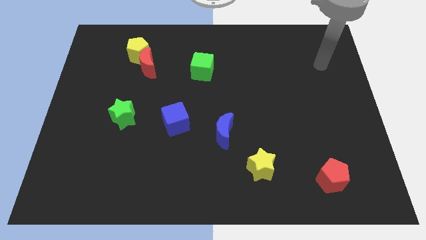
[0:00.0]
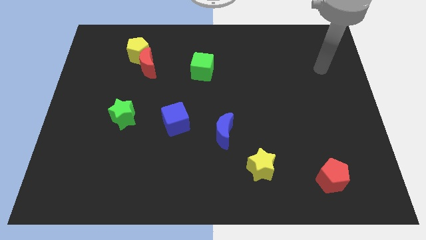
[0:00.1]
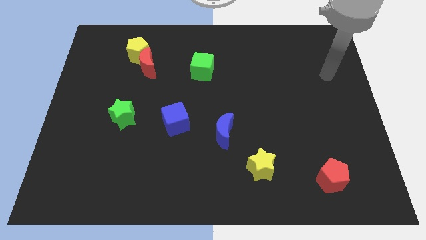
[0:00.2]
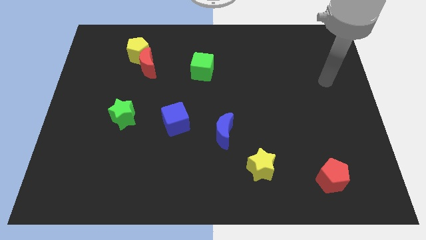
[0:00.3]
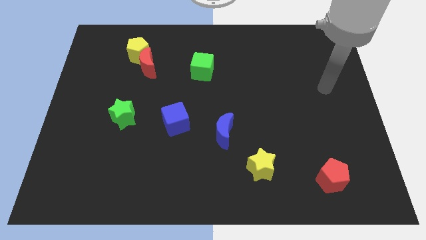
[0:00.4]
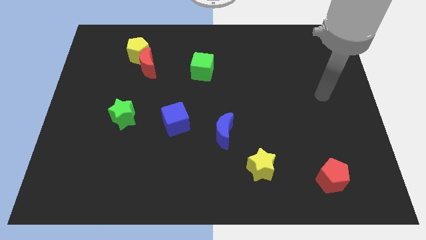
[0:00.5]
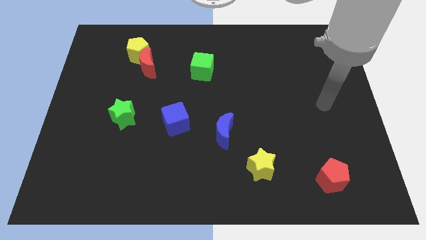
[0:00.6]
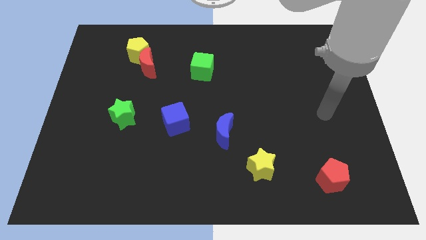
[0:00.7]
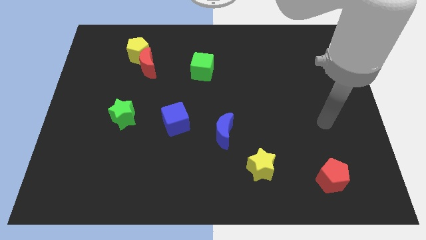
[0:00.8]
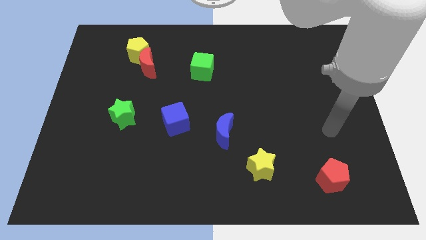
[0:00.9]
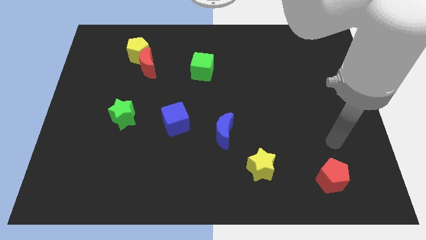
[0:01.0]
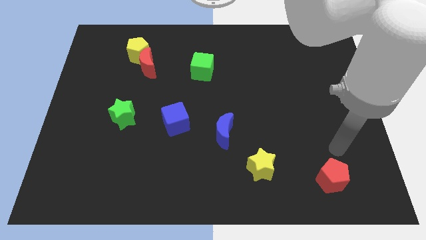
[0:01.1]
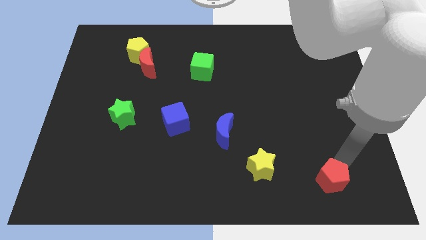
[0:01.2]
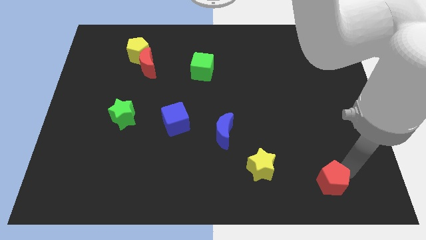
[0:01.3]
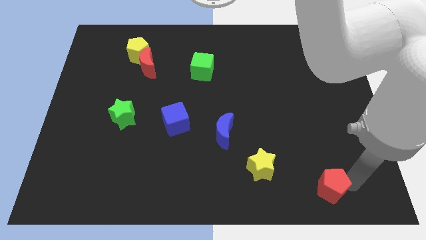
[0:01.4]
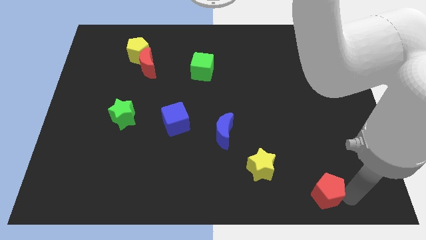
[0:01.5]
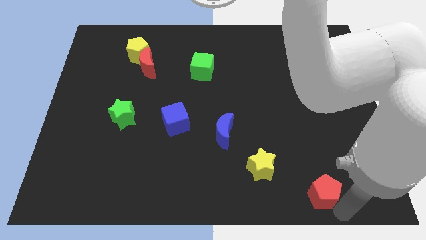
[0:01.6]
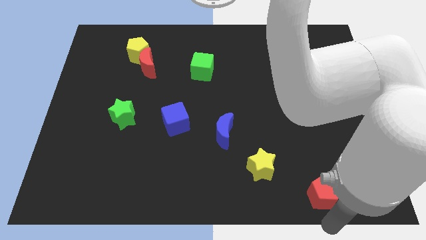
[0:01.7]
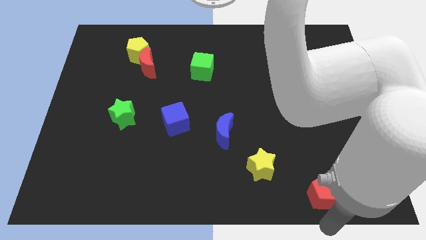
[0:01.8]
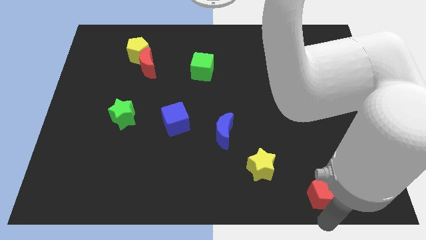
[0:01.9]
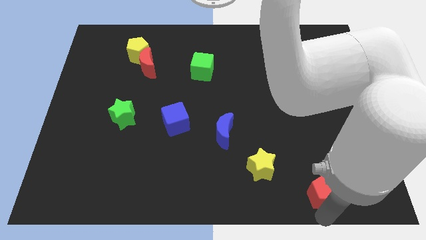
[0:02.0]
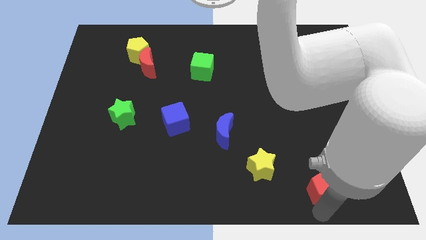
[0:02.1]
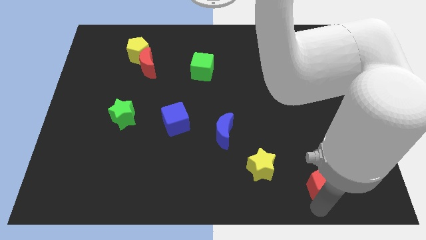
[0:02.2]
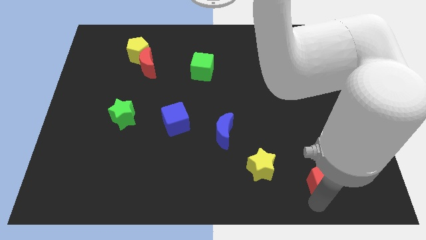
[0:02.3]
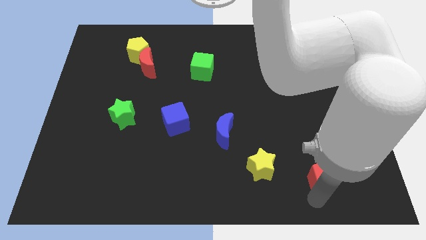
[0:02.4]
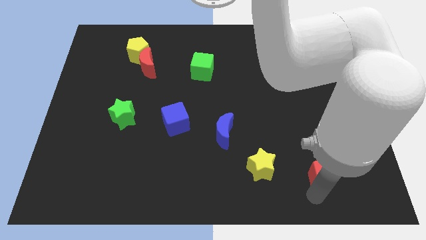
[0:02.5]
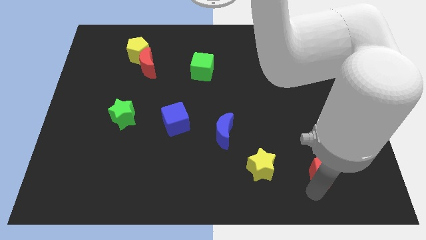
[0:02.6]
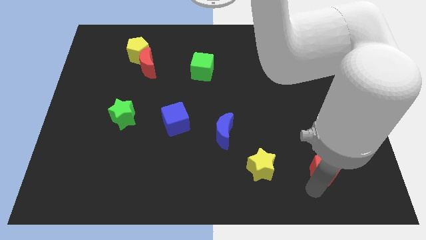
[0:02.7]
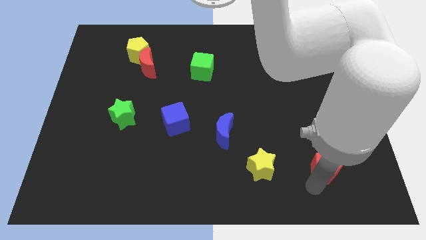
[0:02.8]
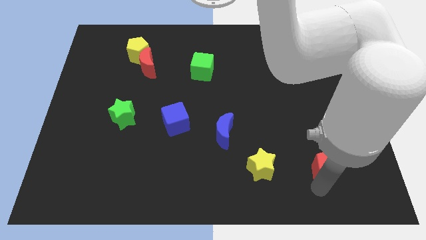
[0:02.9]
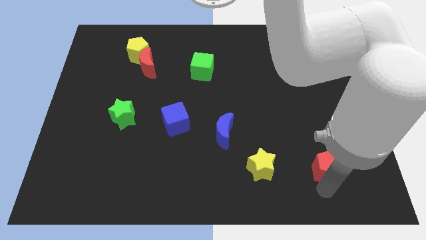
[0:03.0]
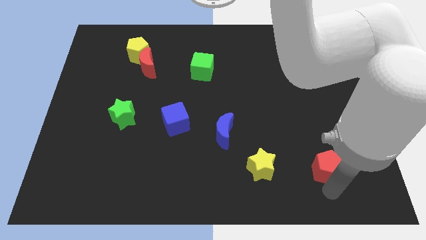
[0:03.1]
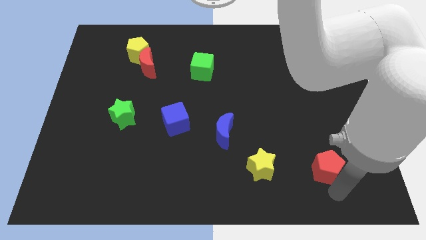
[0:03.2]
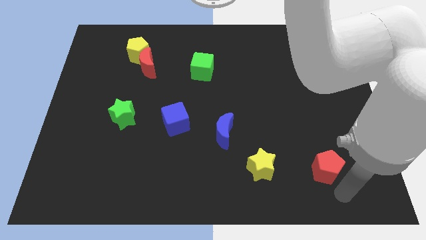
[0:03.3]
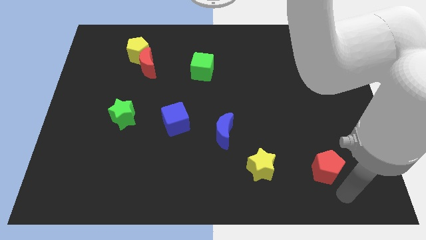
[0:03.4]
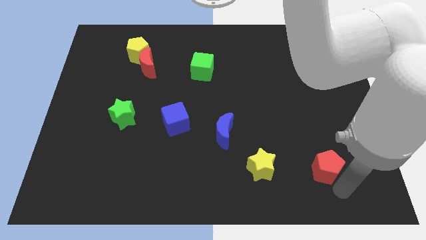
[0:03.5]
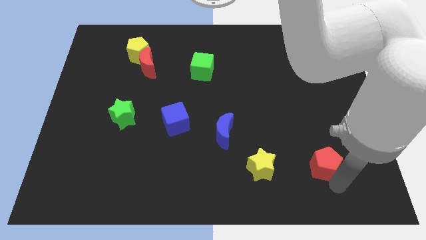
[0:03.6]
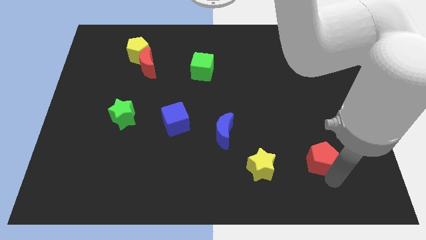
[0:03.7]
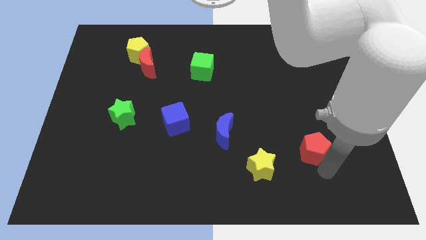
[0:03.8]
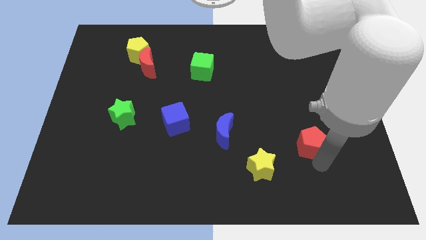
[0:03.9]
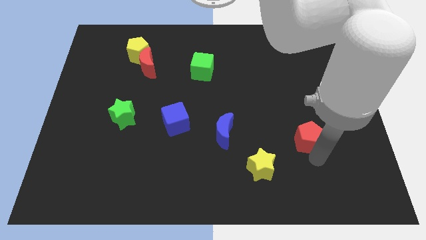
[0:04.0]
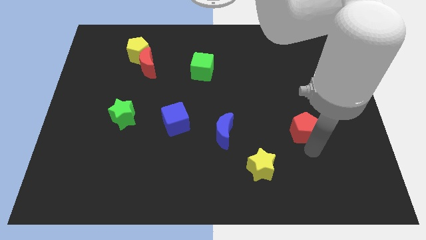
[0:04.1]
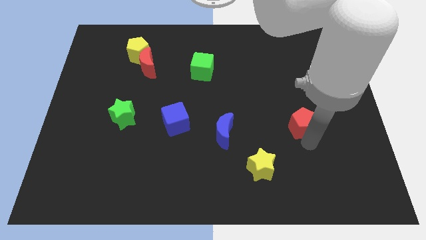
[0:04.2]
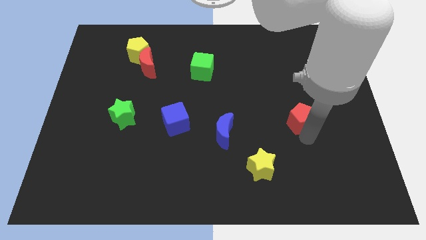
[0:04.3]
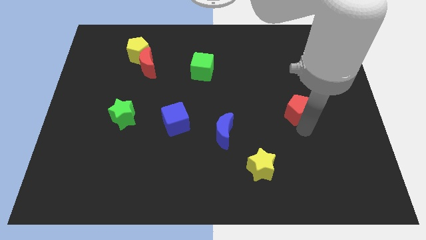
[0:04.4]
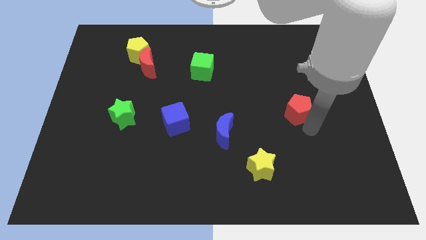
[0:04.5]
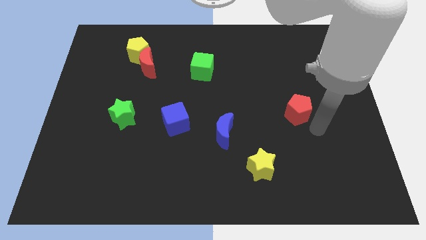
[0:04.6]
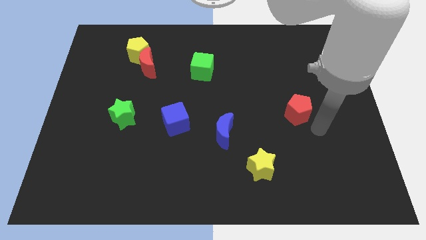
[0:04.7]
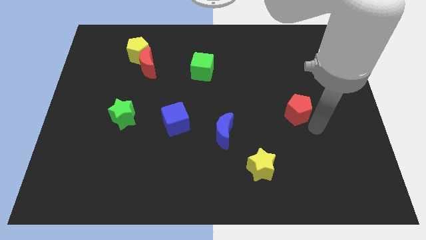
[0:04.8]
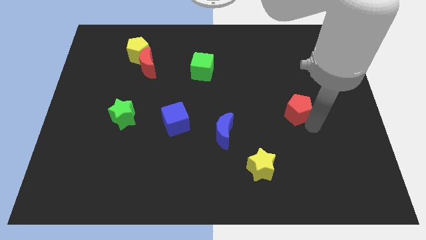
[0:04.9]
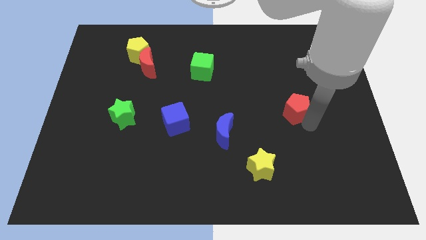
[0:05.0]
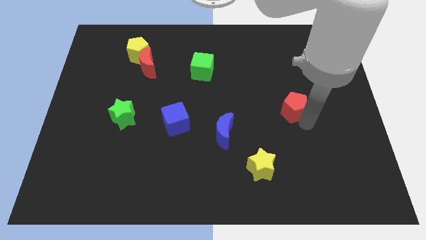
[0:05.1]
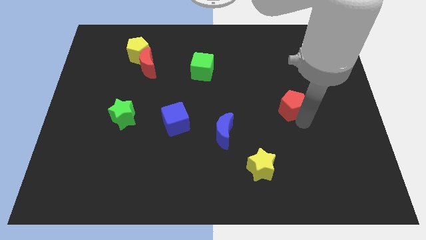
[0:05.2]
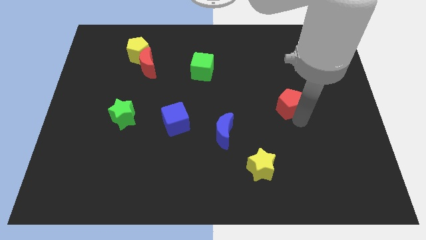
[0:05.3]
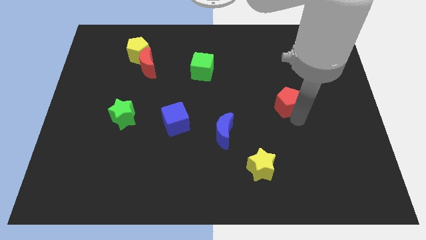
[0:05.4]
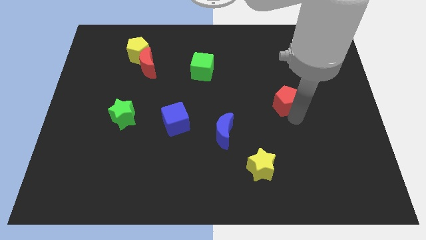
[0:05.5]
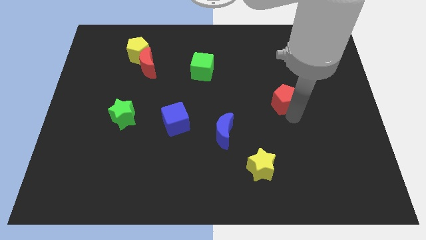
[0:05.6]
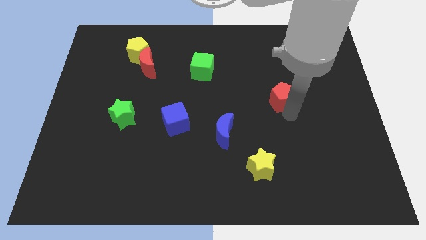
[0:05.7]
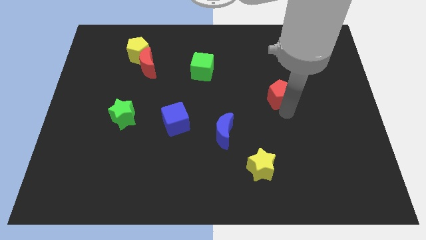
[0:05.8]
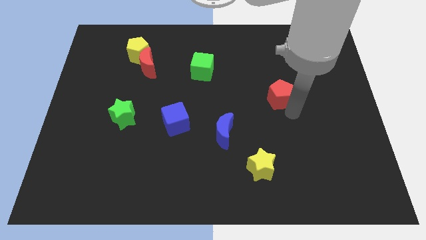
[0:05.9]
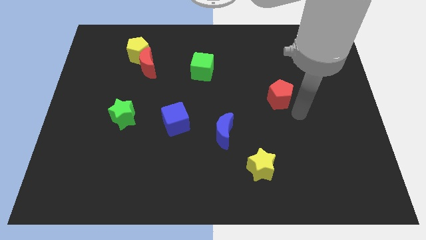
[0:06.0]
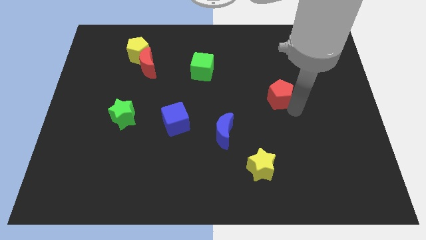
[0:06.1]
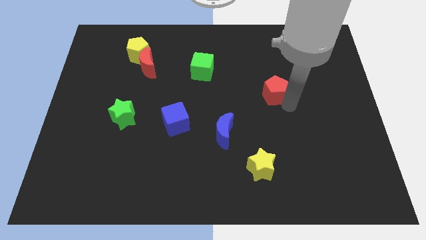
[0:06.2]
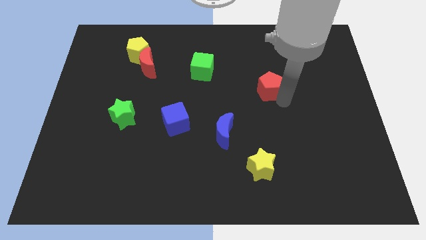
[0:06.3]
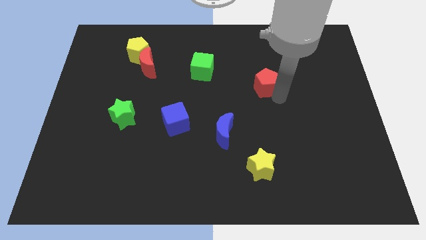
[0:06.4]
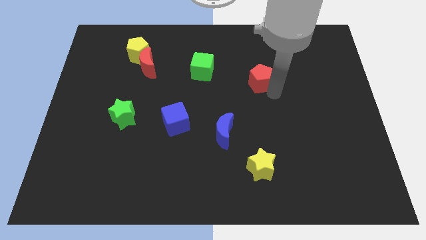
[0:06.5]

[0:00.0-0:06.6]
push the red pentagon to the right of the green cube
